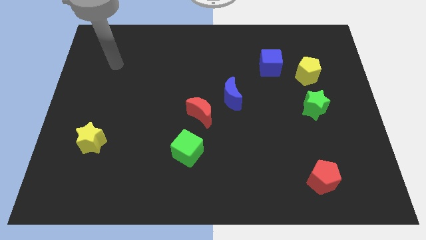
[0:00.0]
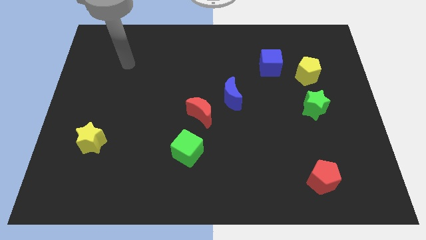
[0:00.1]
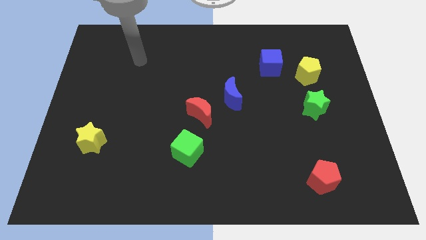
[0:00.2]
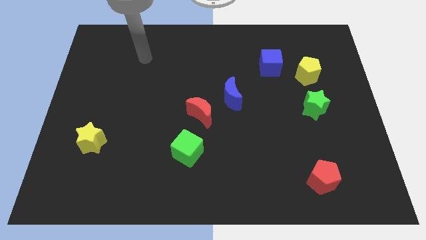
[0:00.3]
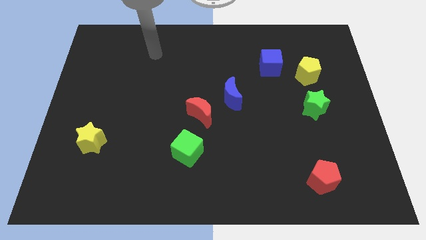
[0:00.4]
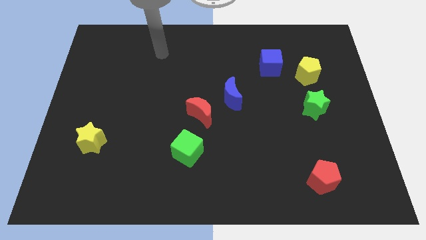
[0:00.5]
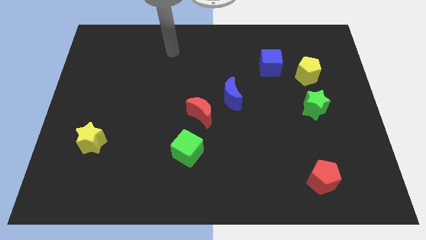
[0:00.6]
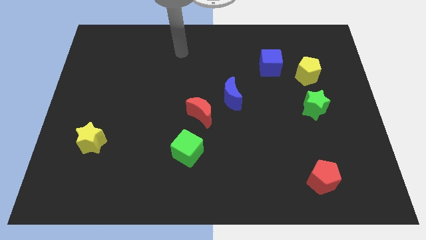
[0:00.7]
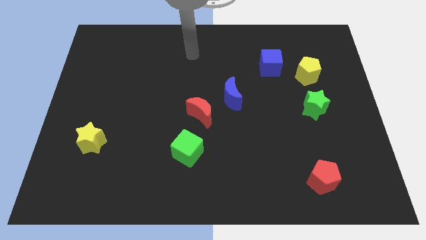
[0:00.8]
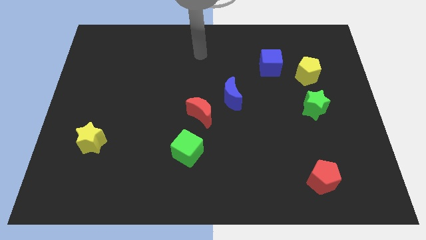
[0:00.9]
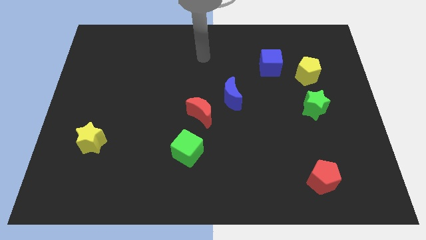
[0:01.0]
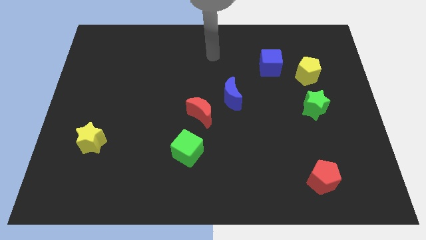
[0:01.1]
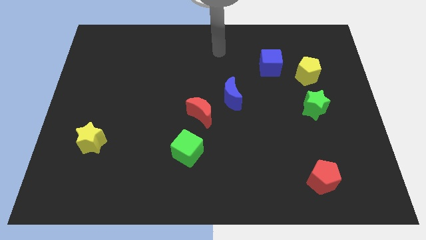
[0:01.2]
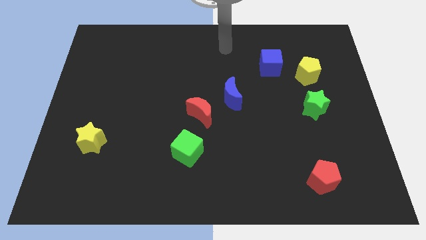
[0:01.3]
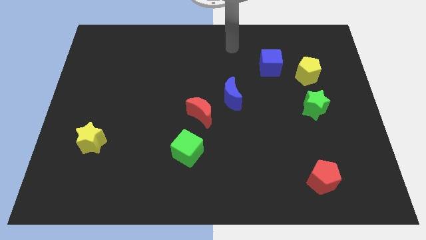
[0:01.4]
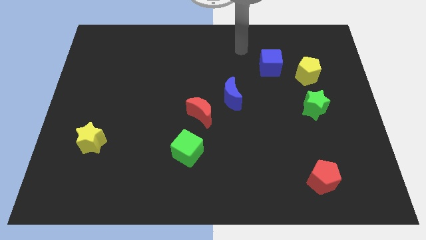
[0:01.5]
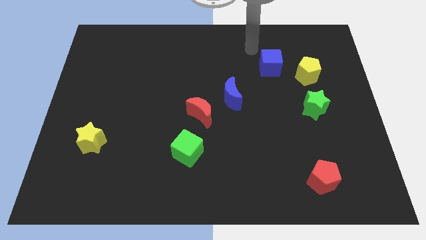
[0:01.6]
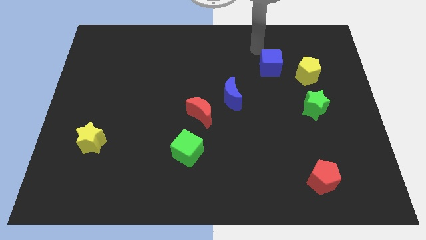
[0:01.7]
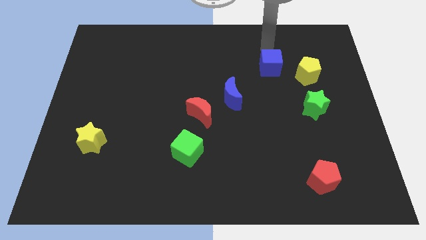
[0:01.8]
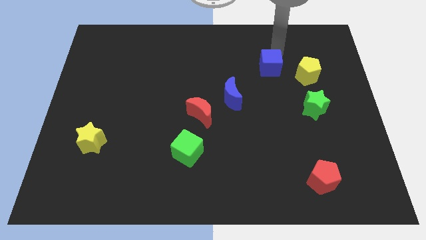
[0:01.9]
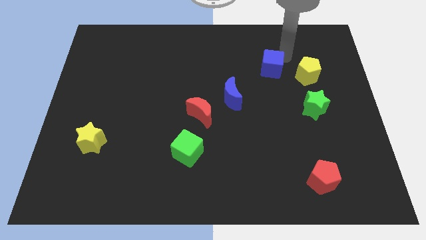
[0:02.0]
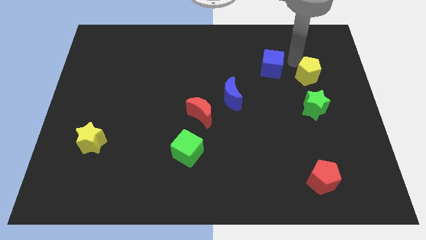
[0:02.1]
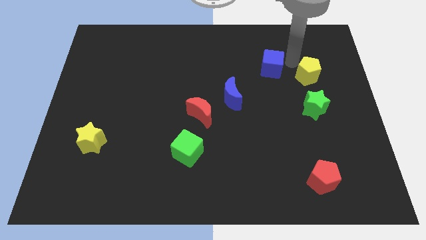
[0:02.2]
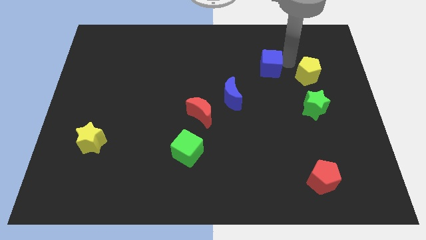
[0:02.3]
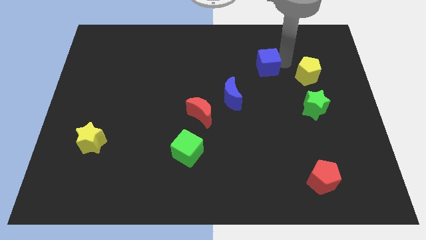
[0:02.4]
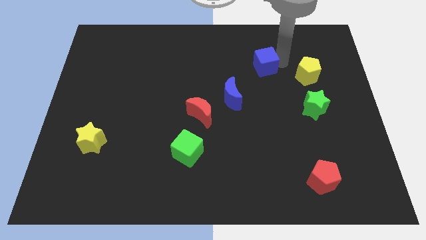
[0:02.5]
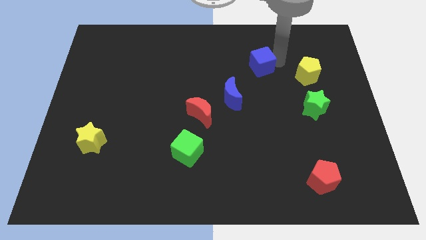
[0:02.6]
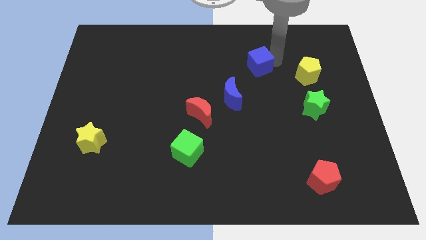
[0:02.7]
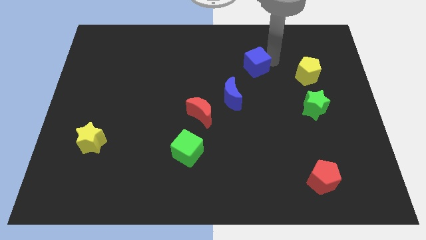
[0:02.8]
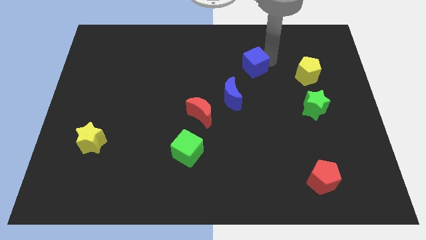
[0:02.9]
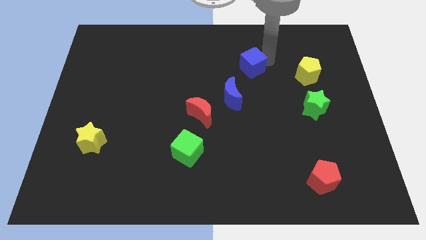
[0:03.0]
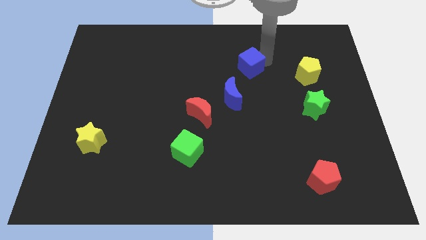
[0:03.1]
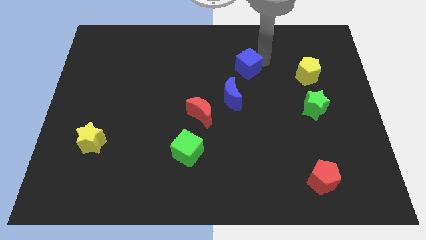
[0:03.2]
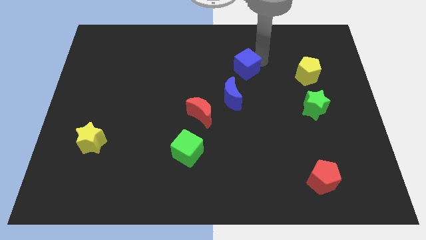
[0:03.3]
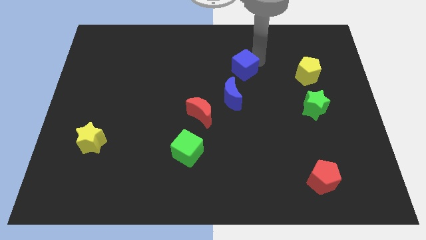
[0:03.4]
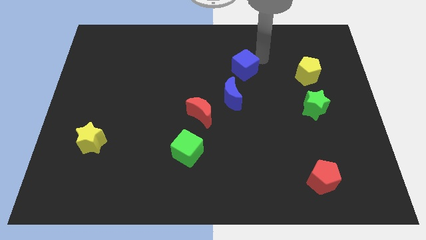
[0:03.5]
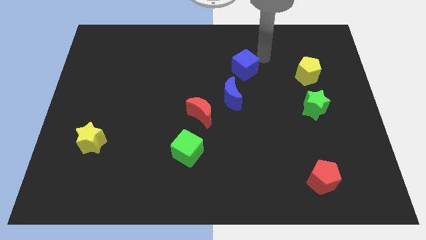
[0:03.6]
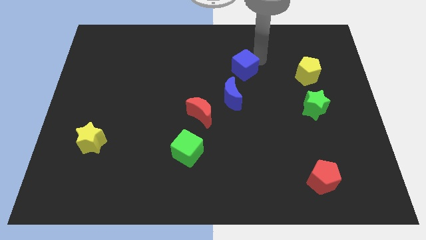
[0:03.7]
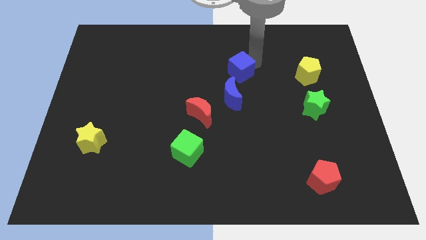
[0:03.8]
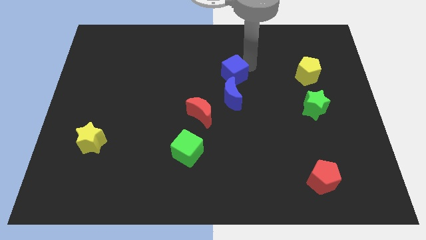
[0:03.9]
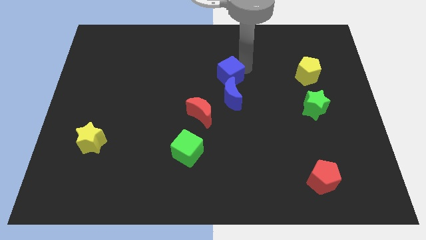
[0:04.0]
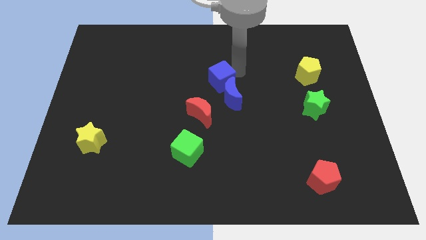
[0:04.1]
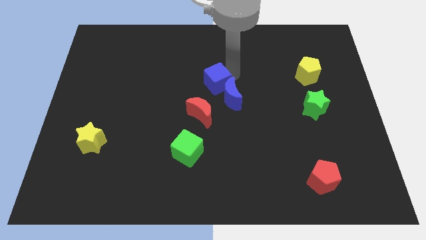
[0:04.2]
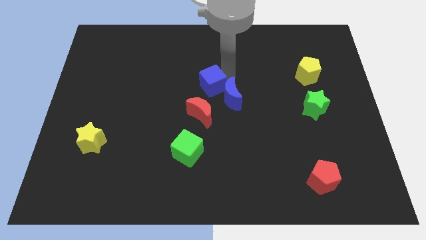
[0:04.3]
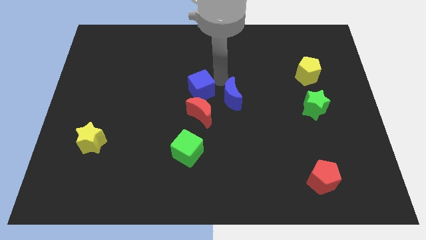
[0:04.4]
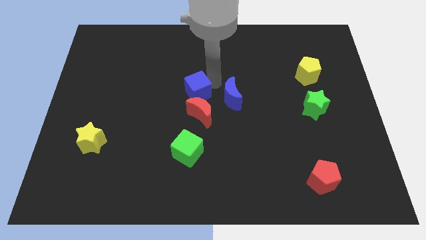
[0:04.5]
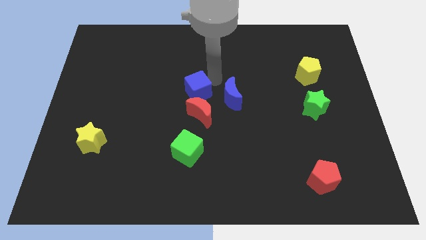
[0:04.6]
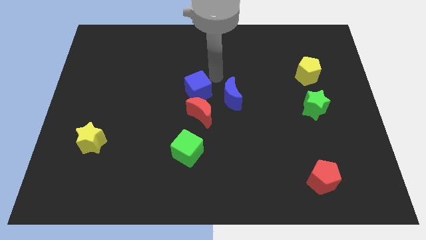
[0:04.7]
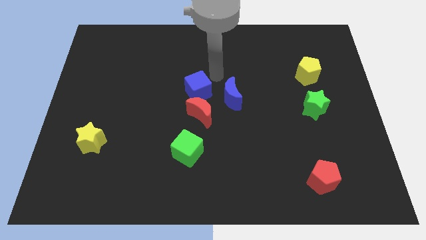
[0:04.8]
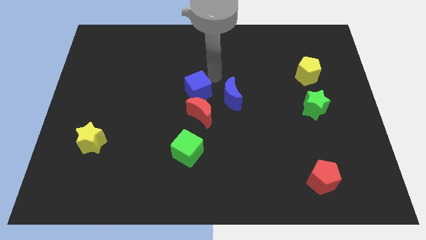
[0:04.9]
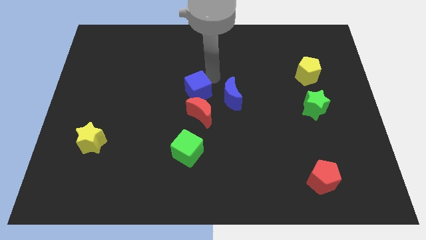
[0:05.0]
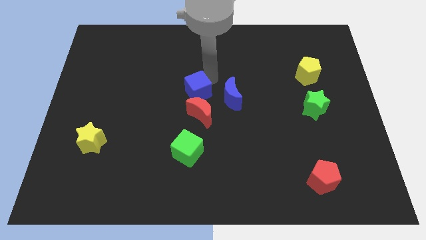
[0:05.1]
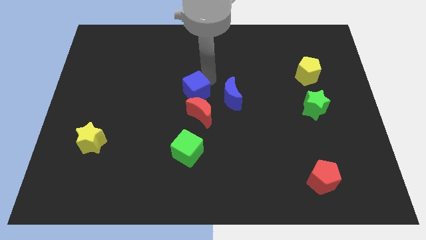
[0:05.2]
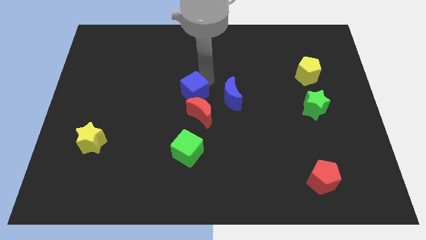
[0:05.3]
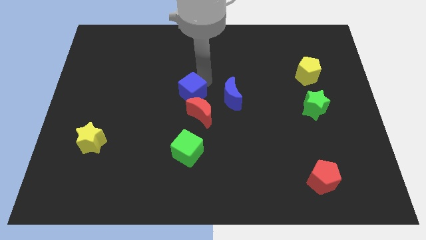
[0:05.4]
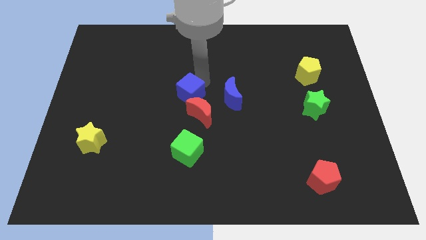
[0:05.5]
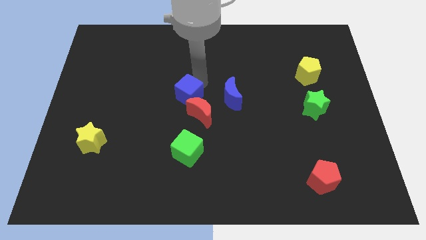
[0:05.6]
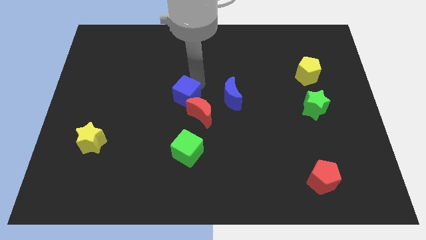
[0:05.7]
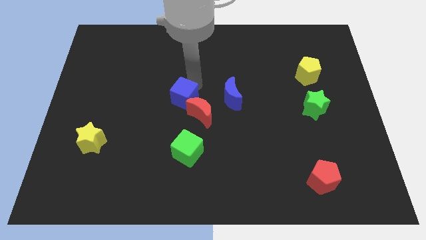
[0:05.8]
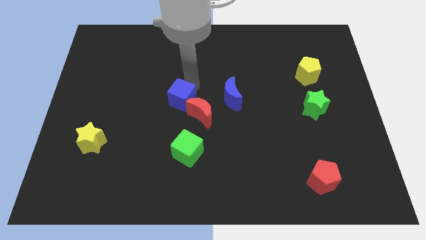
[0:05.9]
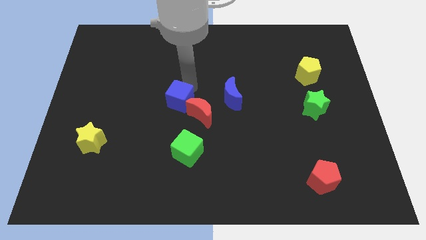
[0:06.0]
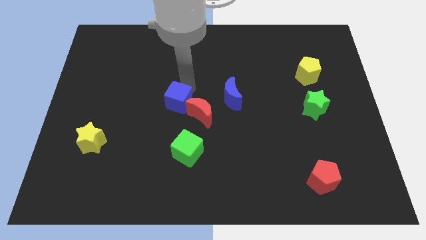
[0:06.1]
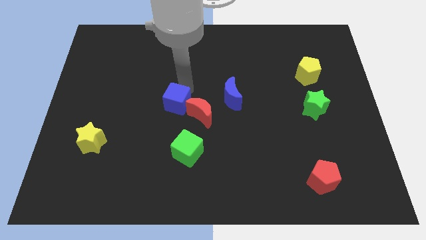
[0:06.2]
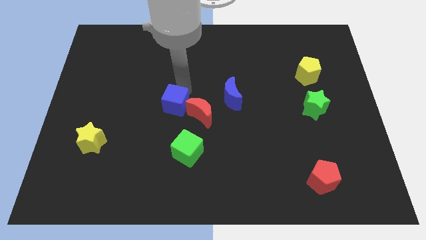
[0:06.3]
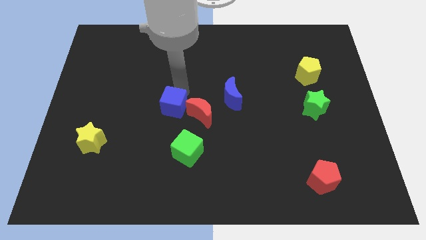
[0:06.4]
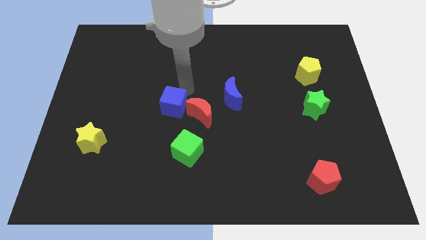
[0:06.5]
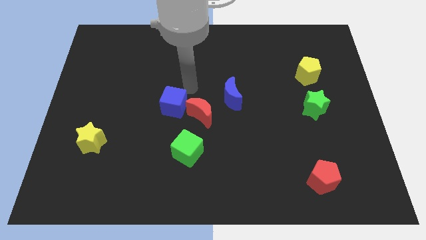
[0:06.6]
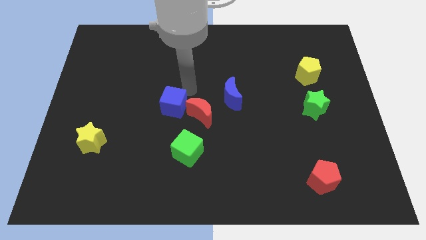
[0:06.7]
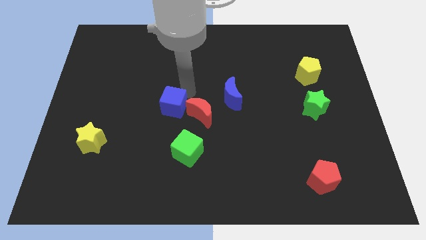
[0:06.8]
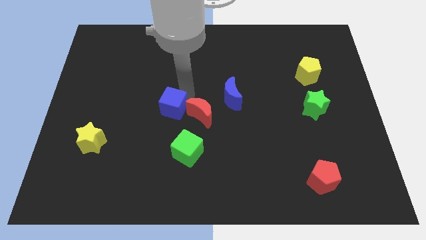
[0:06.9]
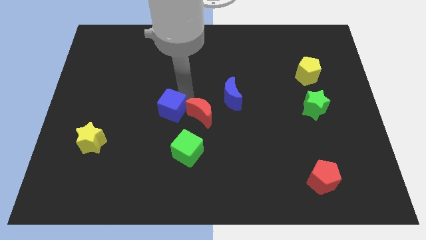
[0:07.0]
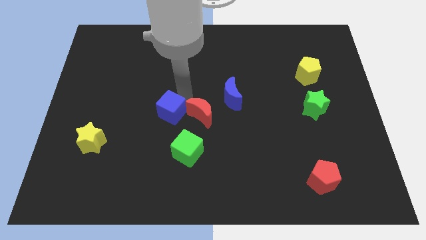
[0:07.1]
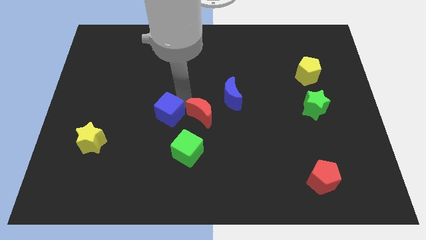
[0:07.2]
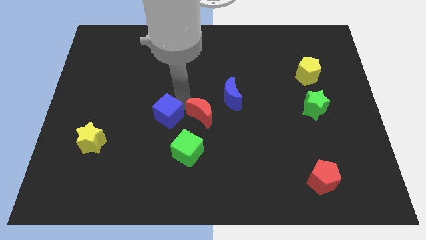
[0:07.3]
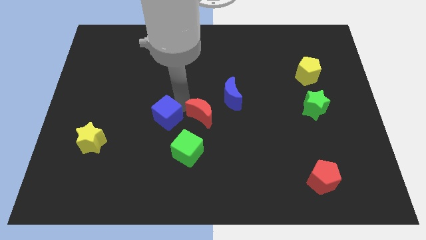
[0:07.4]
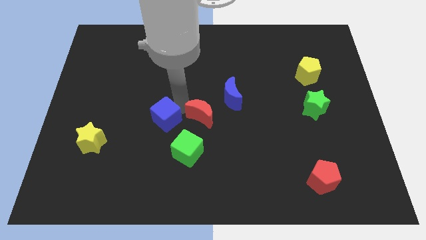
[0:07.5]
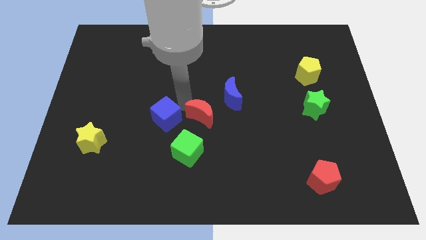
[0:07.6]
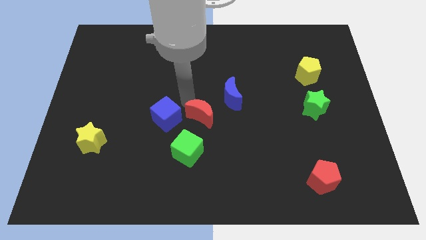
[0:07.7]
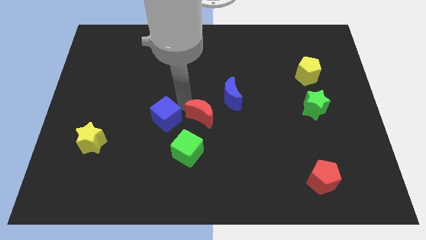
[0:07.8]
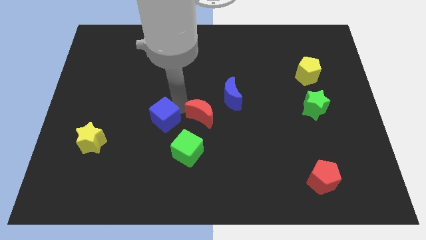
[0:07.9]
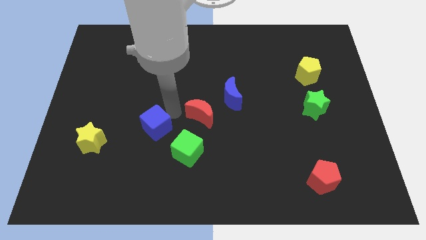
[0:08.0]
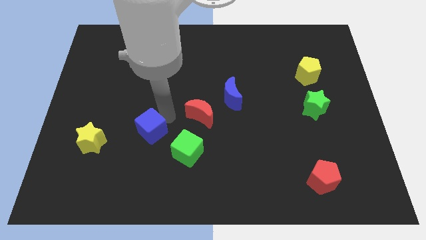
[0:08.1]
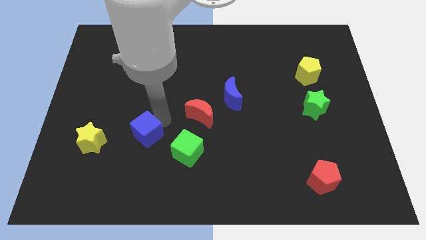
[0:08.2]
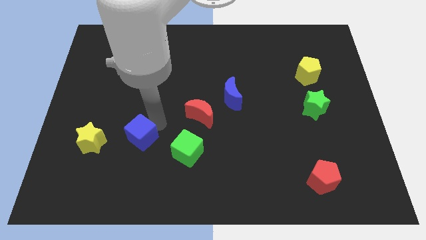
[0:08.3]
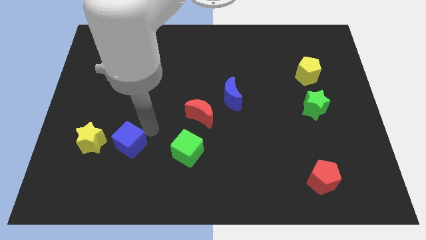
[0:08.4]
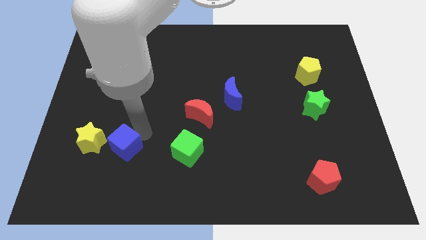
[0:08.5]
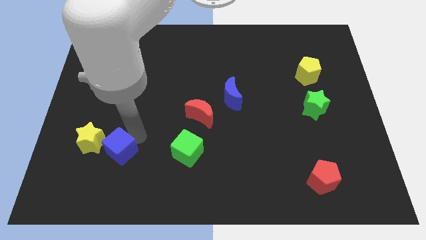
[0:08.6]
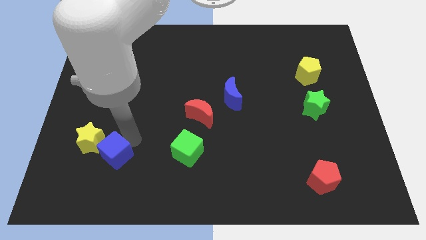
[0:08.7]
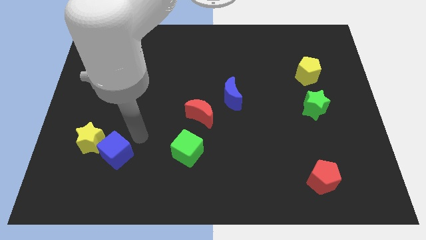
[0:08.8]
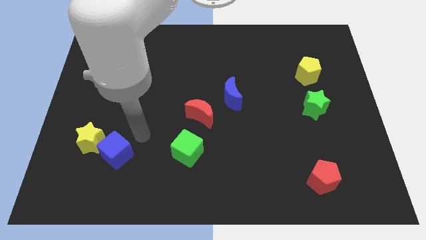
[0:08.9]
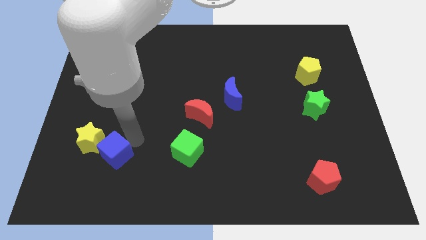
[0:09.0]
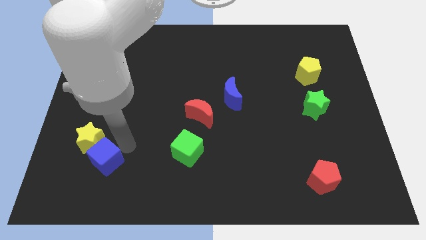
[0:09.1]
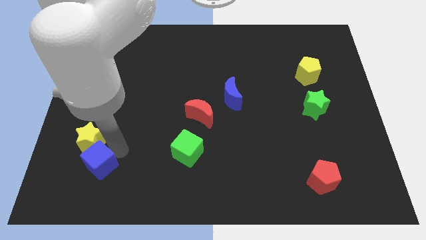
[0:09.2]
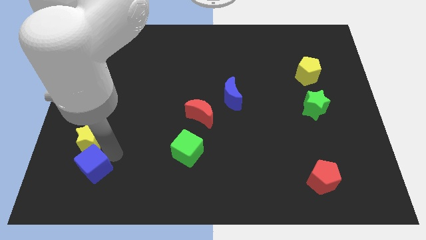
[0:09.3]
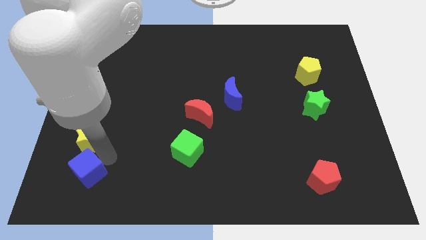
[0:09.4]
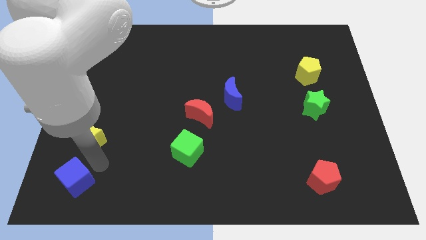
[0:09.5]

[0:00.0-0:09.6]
slide the blue cube to the bottom left
